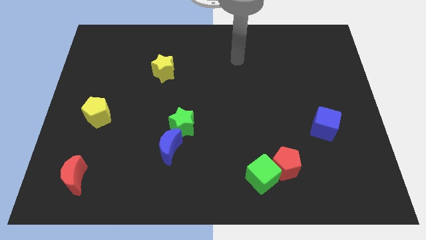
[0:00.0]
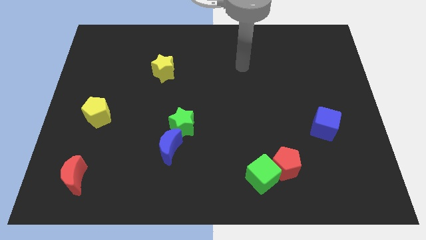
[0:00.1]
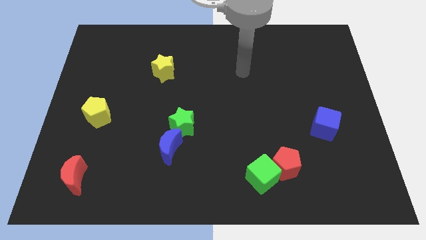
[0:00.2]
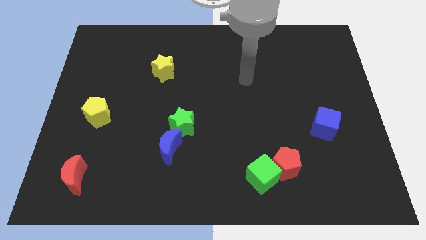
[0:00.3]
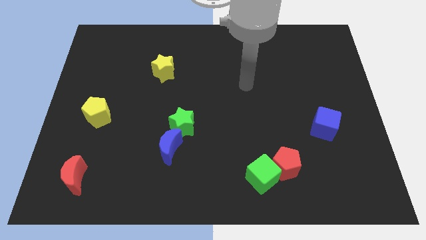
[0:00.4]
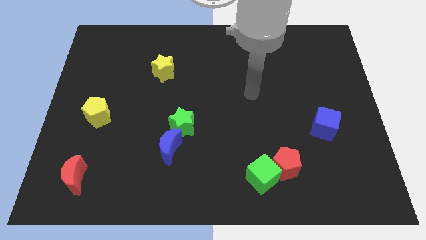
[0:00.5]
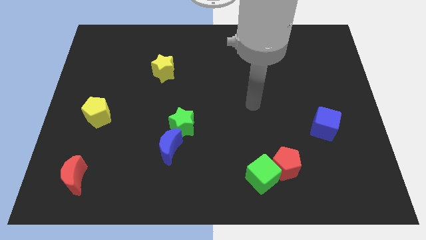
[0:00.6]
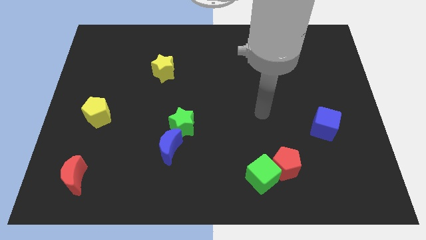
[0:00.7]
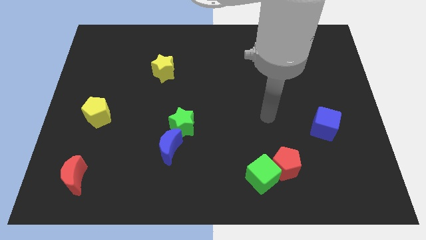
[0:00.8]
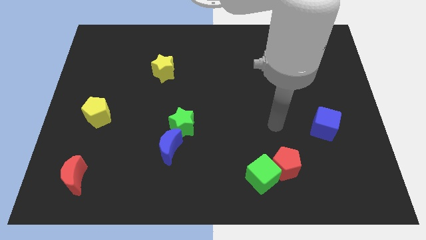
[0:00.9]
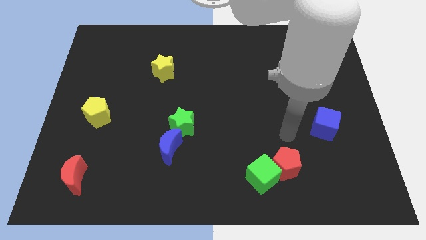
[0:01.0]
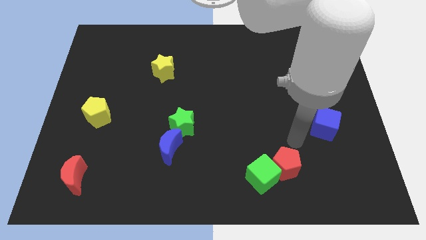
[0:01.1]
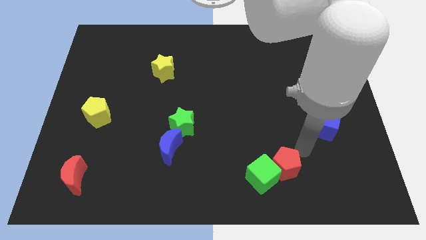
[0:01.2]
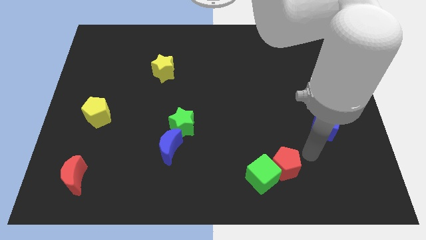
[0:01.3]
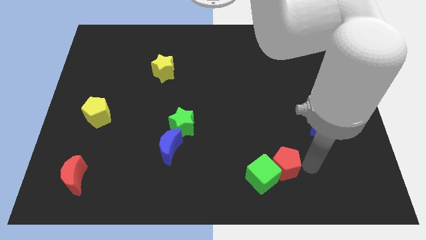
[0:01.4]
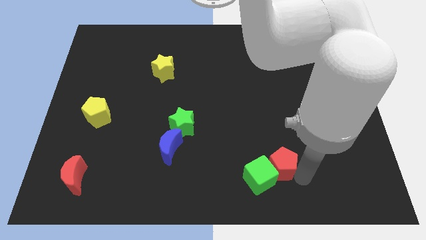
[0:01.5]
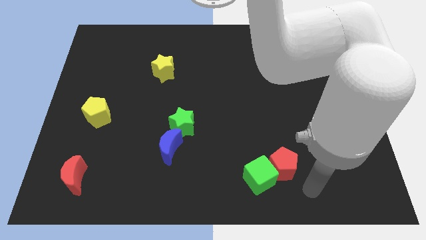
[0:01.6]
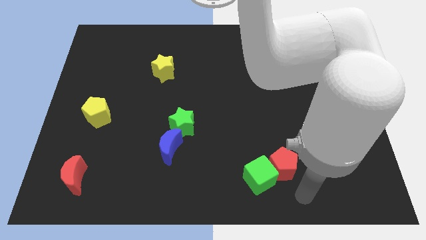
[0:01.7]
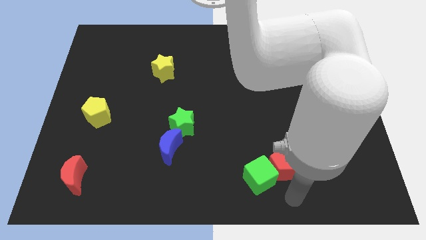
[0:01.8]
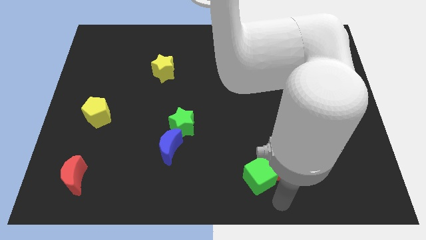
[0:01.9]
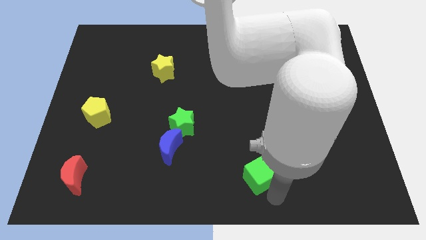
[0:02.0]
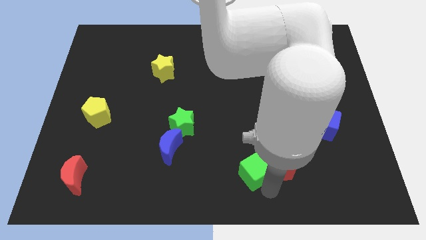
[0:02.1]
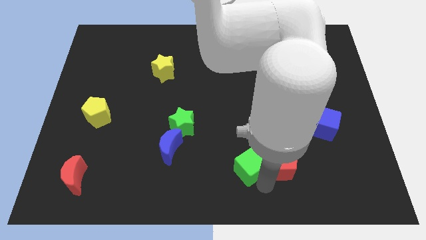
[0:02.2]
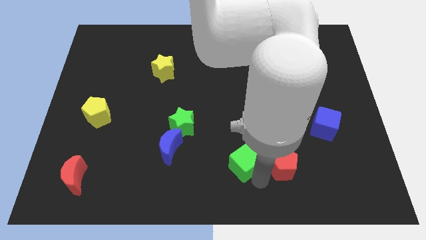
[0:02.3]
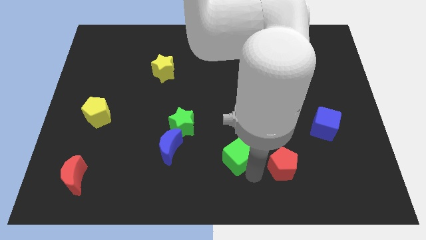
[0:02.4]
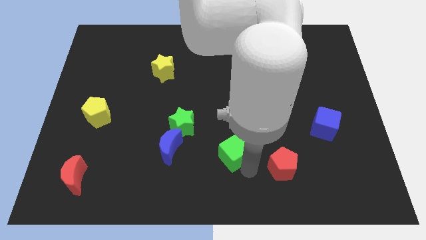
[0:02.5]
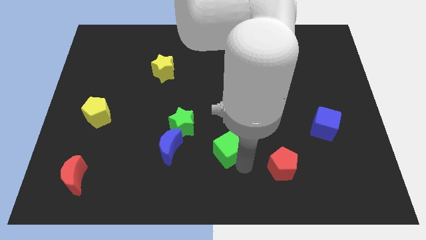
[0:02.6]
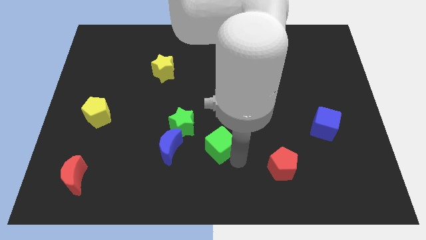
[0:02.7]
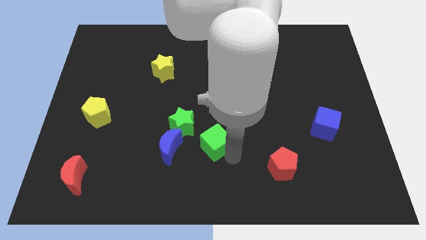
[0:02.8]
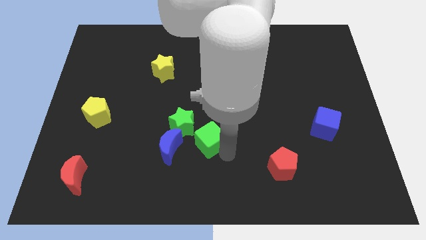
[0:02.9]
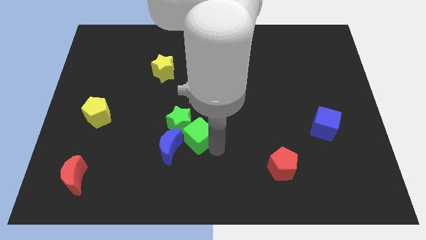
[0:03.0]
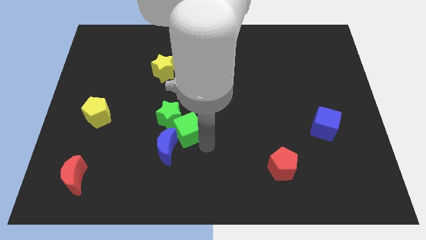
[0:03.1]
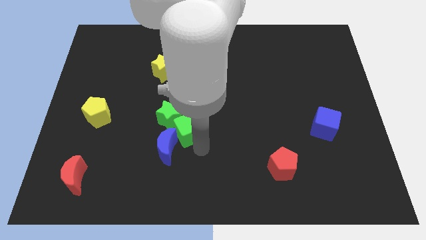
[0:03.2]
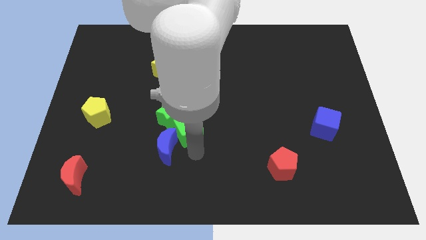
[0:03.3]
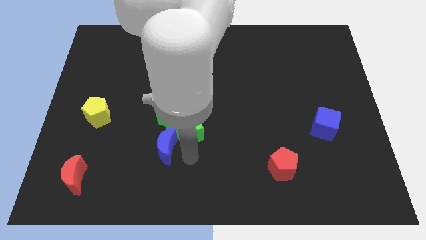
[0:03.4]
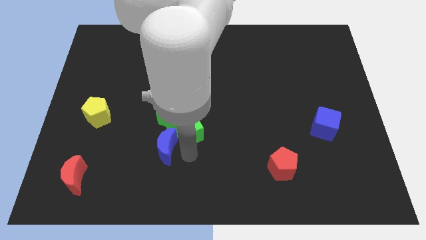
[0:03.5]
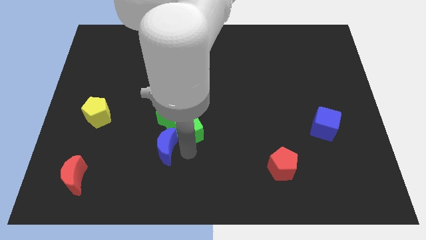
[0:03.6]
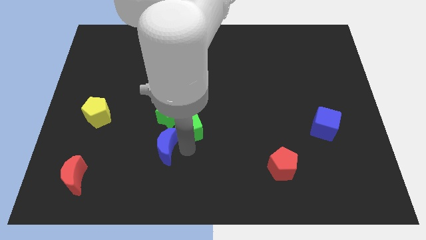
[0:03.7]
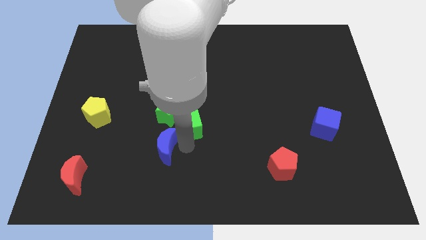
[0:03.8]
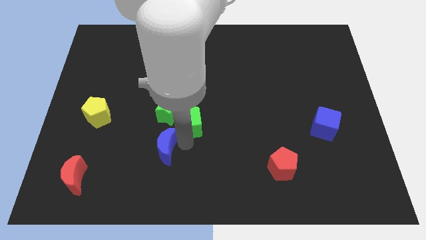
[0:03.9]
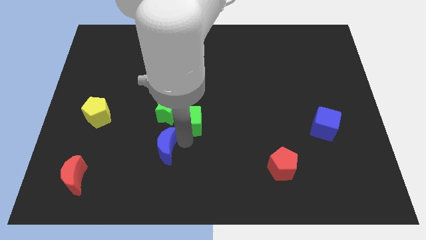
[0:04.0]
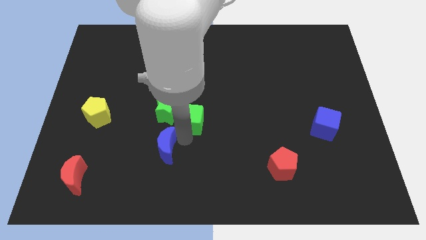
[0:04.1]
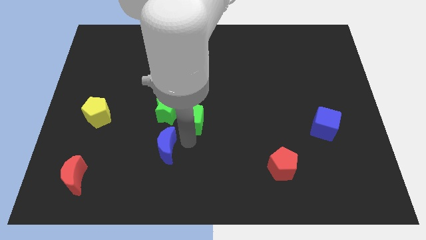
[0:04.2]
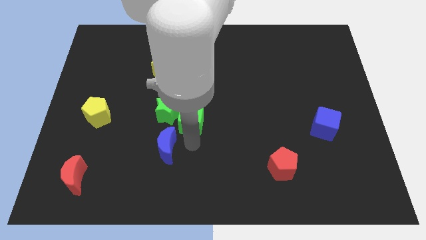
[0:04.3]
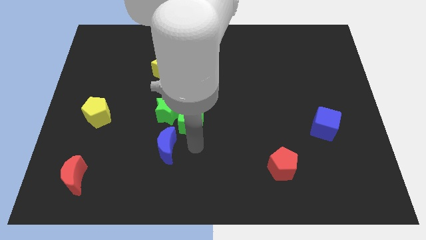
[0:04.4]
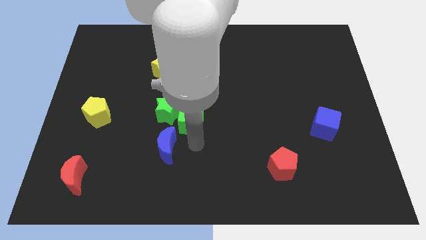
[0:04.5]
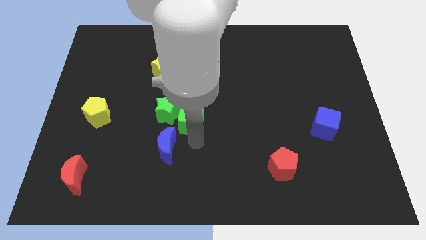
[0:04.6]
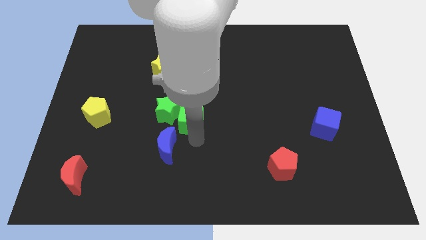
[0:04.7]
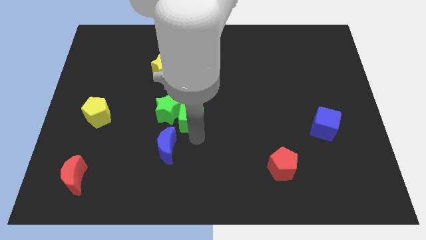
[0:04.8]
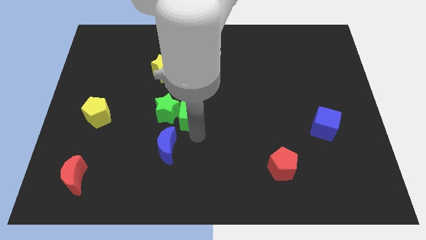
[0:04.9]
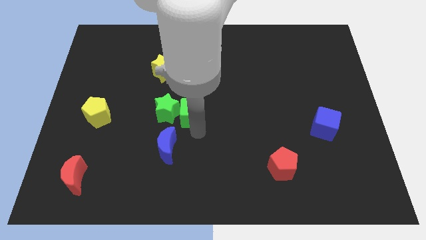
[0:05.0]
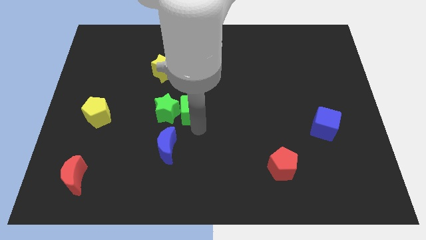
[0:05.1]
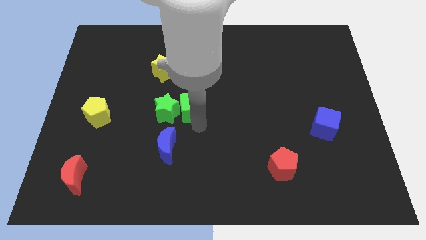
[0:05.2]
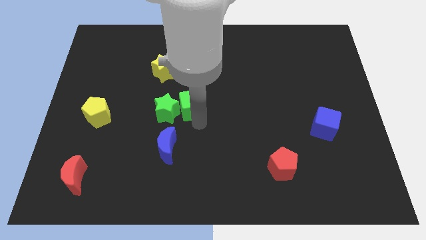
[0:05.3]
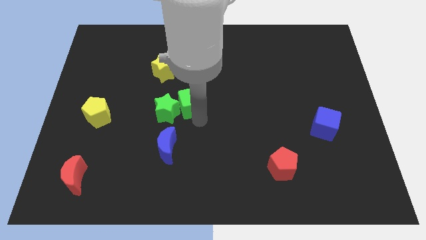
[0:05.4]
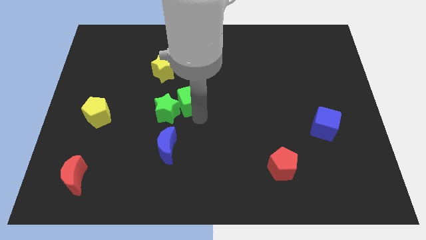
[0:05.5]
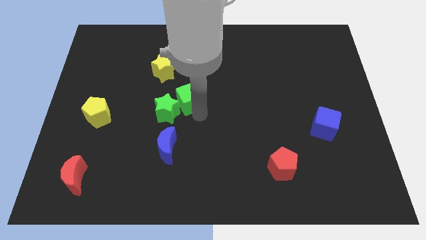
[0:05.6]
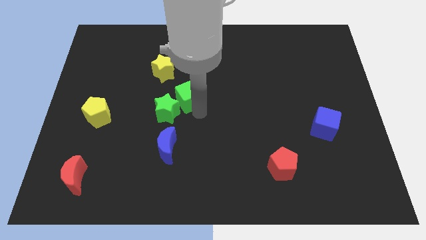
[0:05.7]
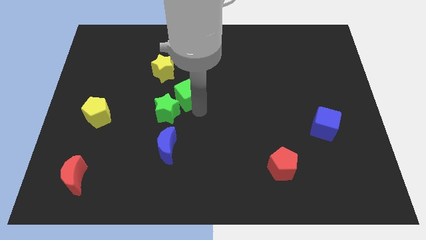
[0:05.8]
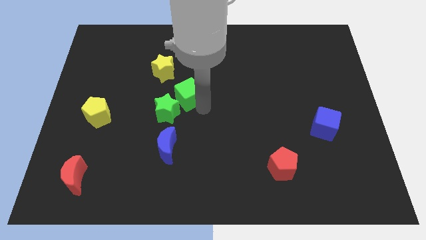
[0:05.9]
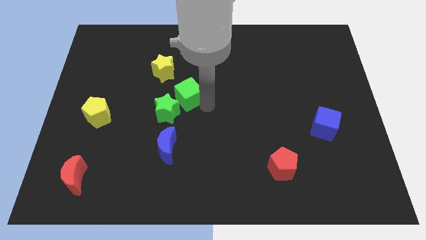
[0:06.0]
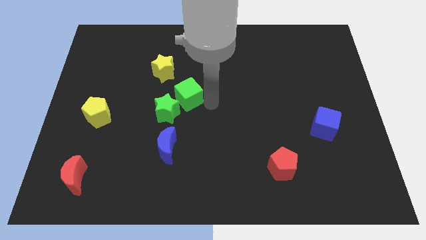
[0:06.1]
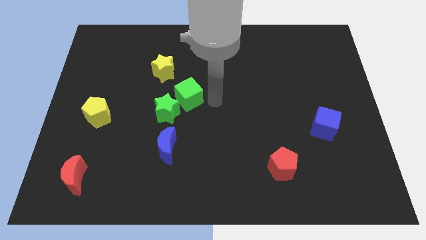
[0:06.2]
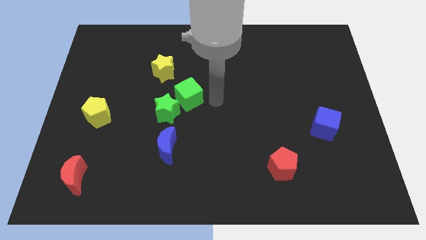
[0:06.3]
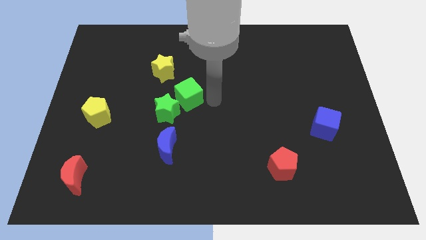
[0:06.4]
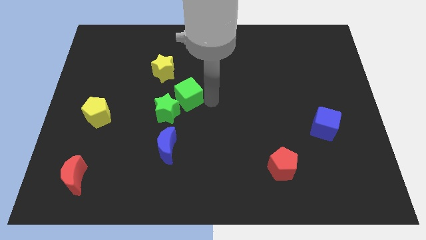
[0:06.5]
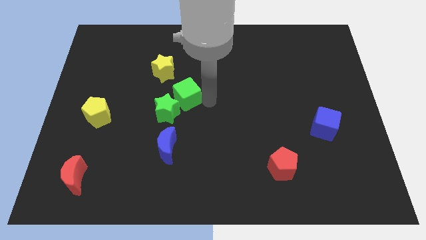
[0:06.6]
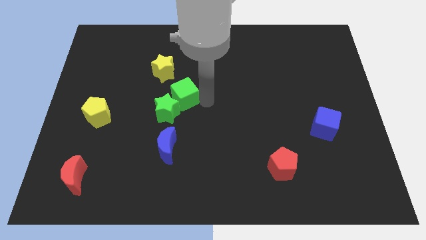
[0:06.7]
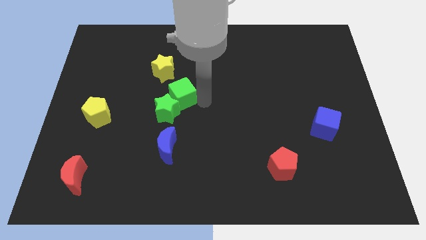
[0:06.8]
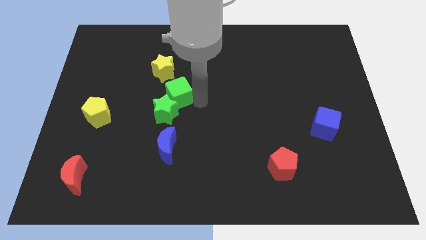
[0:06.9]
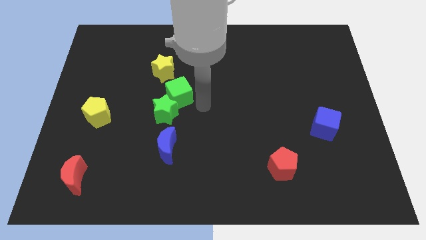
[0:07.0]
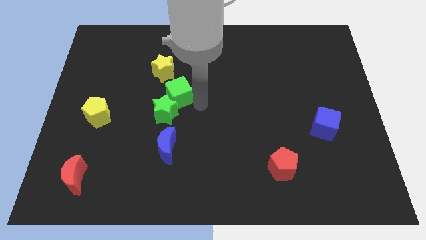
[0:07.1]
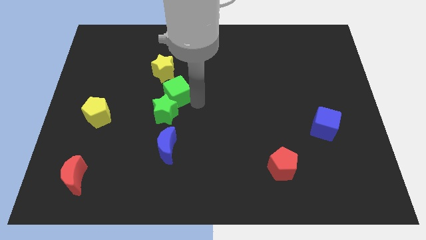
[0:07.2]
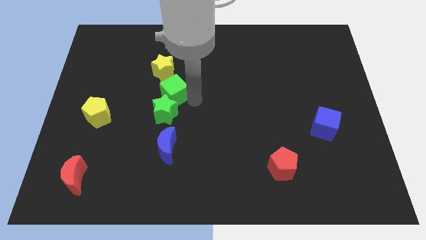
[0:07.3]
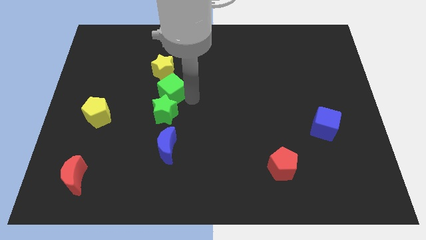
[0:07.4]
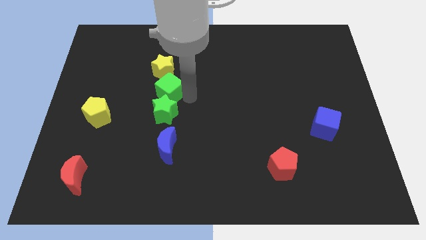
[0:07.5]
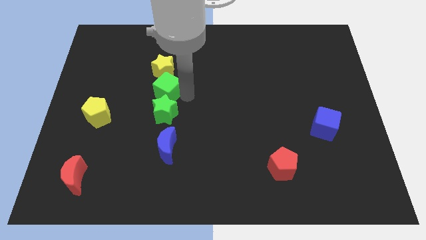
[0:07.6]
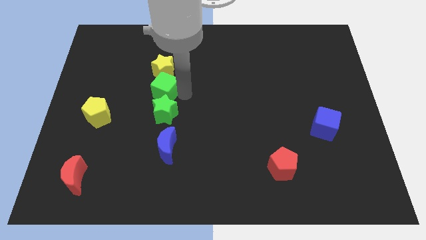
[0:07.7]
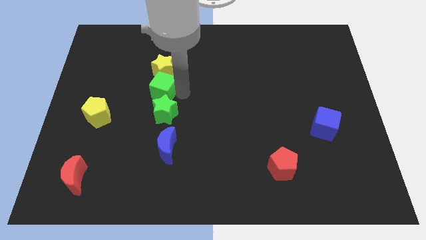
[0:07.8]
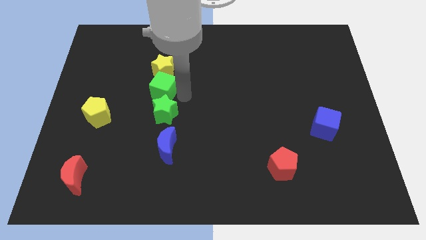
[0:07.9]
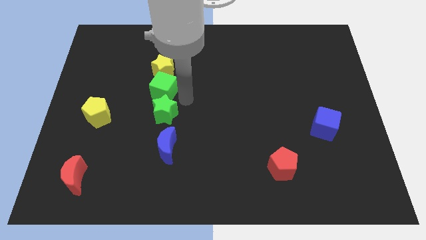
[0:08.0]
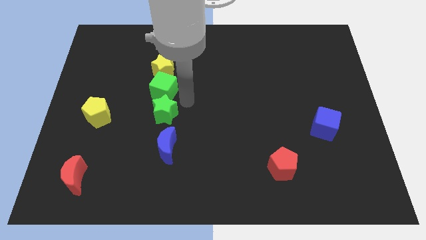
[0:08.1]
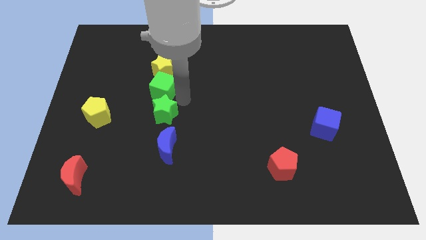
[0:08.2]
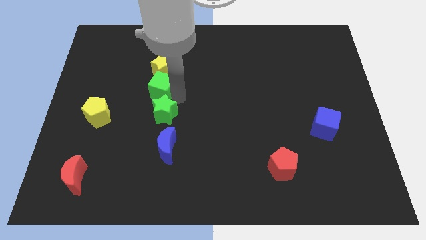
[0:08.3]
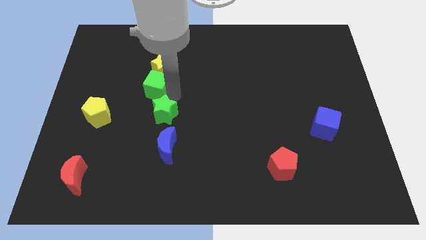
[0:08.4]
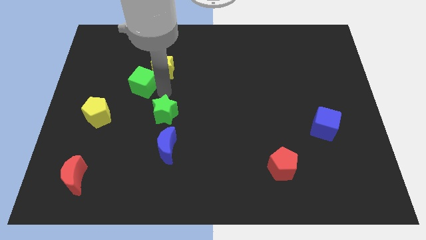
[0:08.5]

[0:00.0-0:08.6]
push the green cube to the left side of the yellow star
